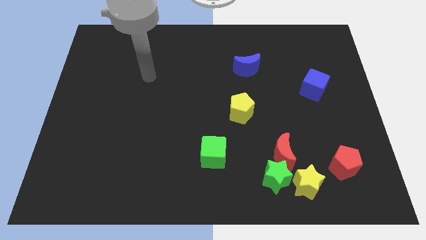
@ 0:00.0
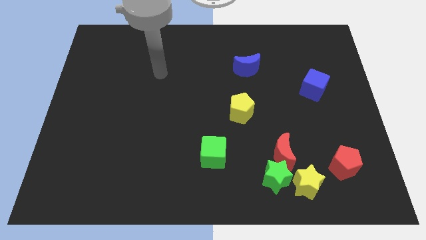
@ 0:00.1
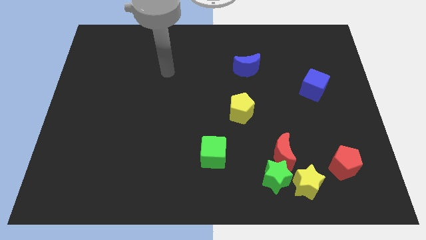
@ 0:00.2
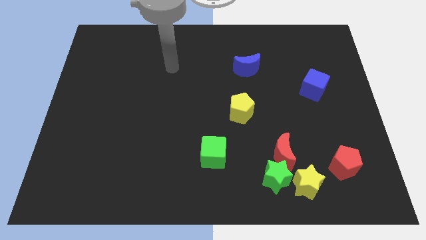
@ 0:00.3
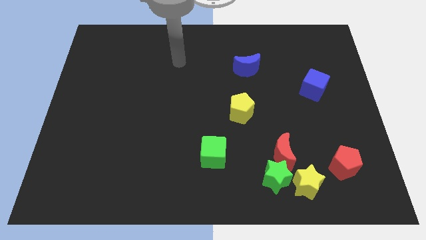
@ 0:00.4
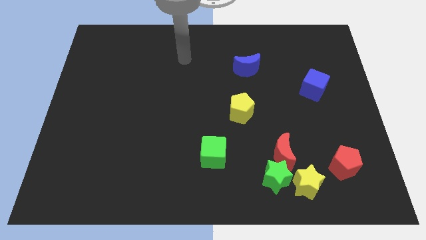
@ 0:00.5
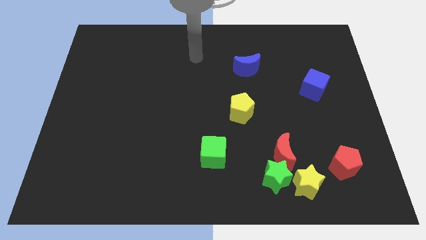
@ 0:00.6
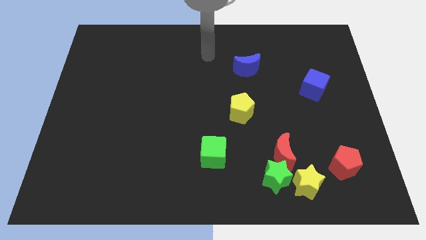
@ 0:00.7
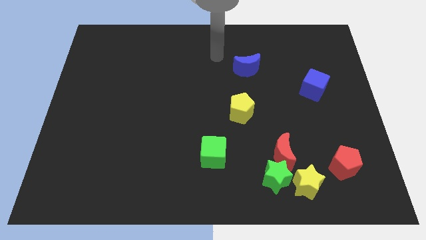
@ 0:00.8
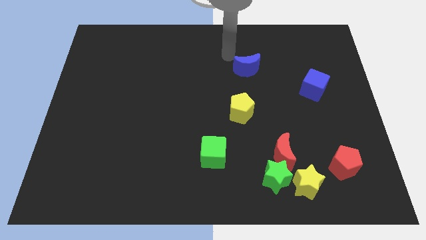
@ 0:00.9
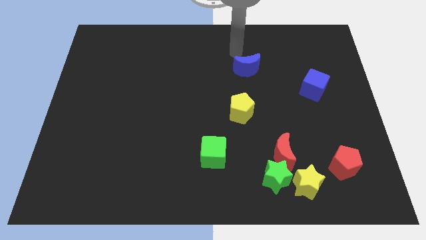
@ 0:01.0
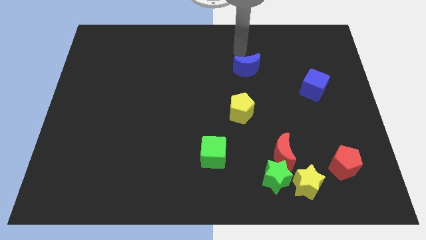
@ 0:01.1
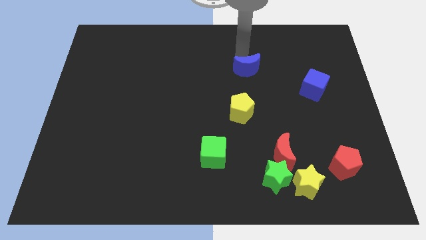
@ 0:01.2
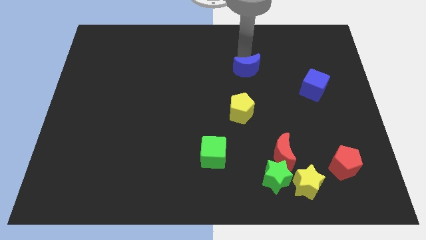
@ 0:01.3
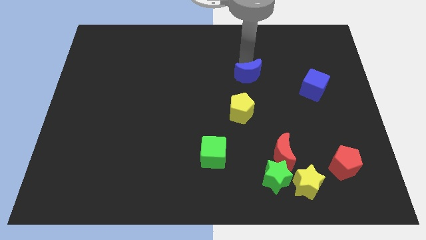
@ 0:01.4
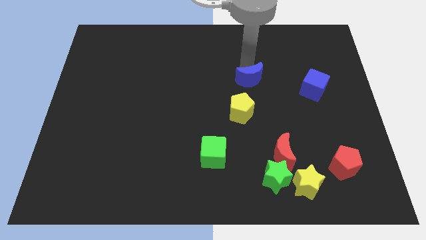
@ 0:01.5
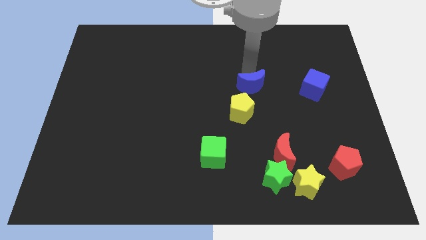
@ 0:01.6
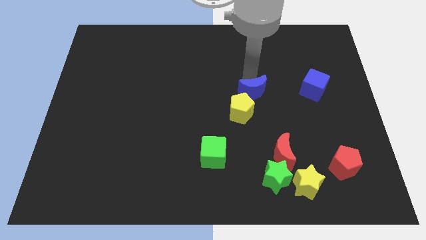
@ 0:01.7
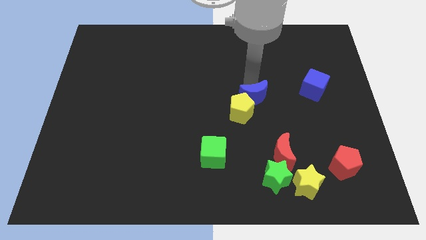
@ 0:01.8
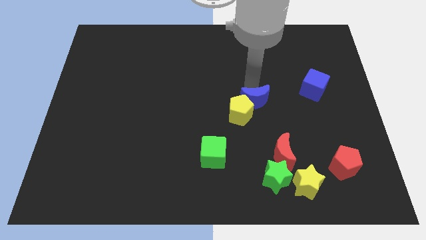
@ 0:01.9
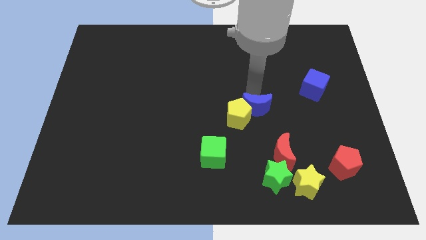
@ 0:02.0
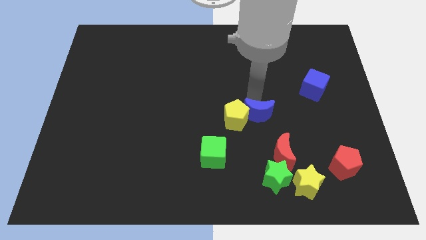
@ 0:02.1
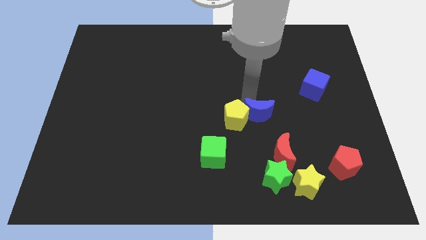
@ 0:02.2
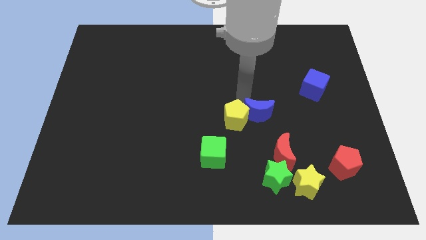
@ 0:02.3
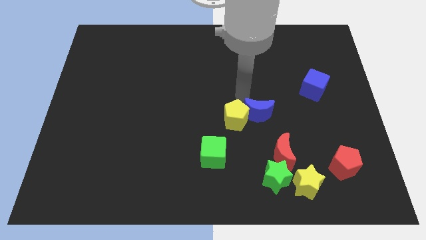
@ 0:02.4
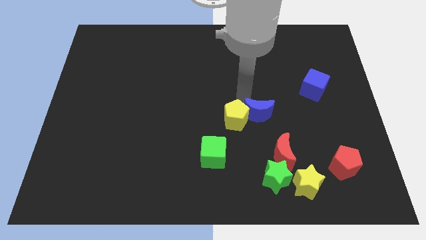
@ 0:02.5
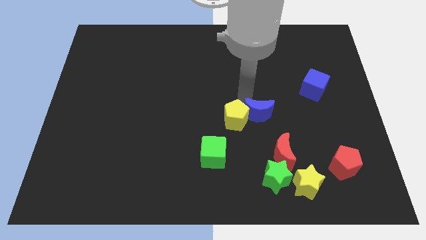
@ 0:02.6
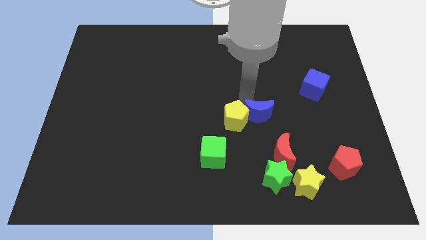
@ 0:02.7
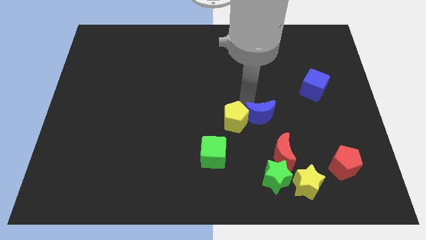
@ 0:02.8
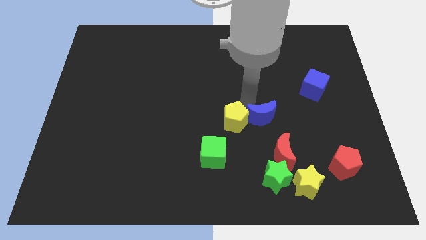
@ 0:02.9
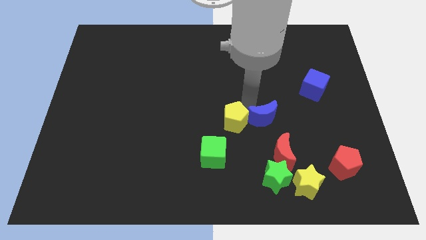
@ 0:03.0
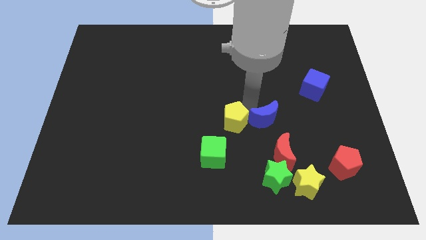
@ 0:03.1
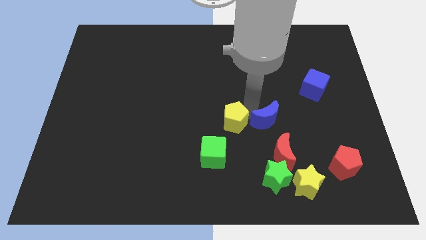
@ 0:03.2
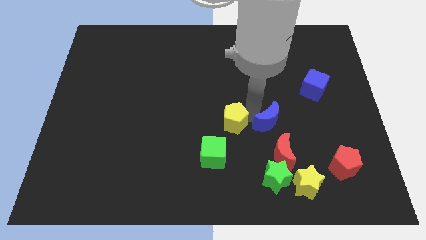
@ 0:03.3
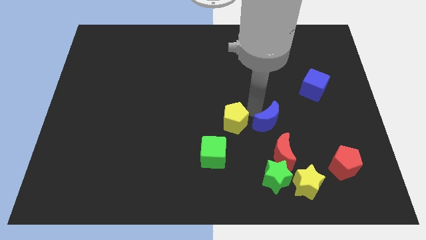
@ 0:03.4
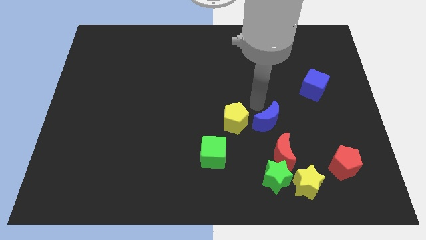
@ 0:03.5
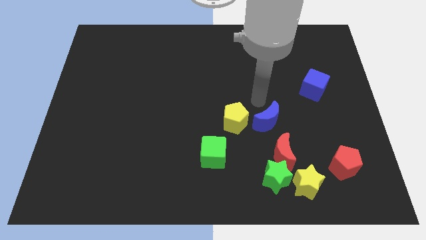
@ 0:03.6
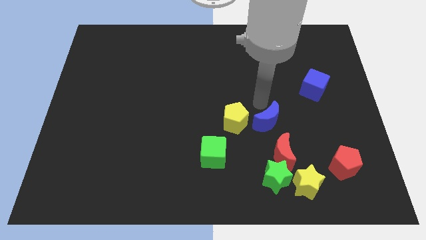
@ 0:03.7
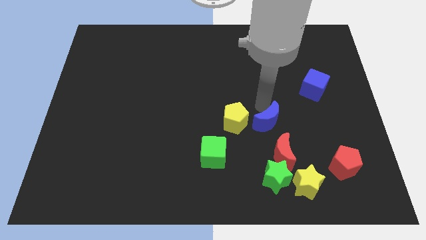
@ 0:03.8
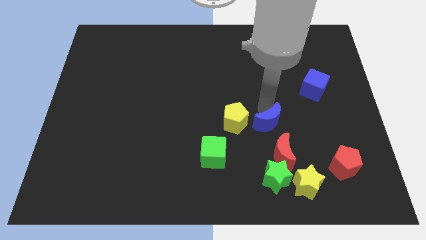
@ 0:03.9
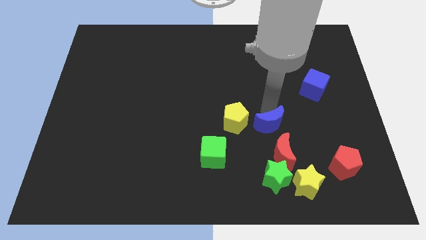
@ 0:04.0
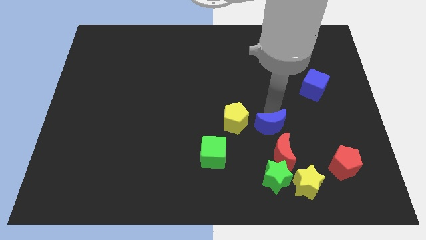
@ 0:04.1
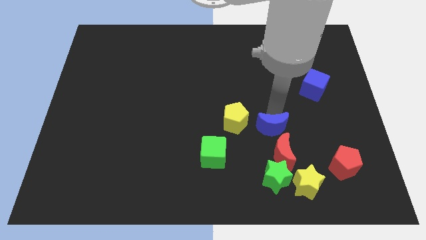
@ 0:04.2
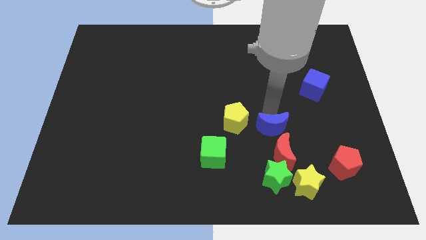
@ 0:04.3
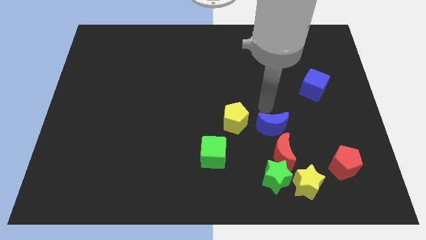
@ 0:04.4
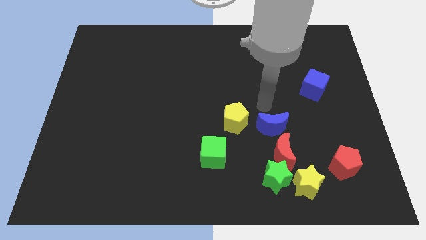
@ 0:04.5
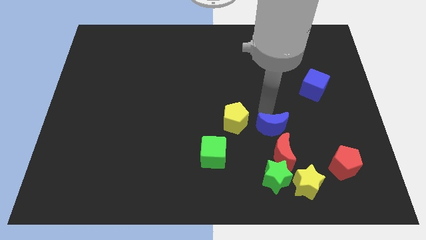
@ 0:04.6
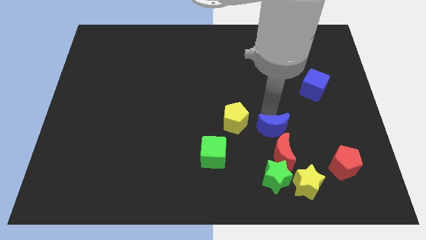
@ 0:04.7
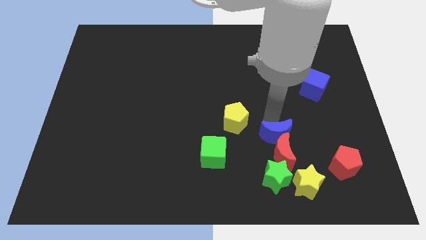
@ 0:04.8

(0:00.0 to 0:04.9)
slide the blue moon next to the red moon

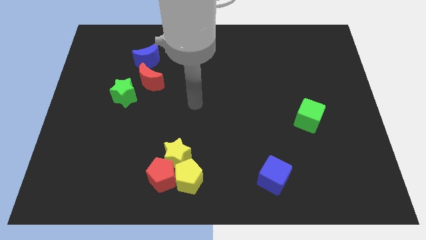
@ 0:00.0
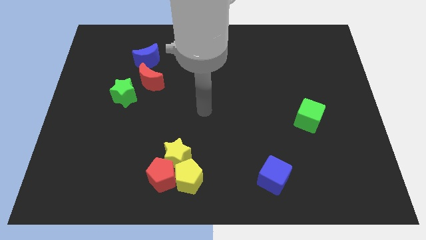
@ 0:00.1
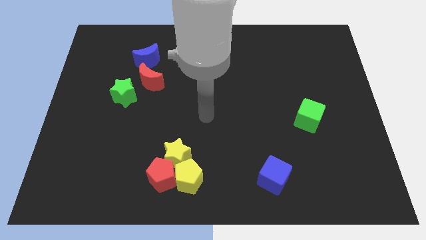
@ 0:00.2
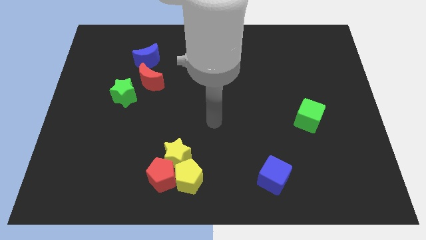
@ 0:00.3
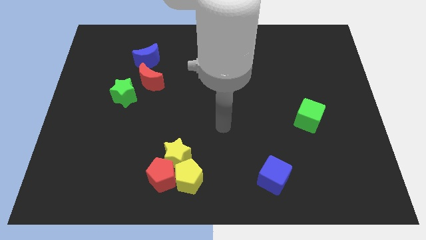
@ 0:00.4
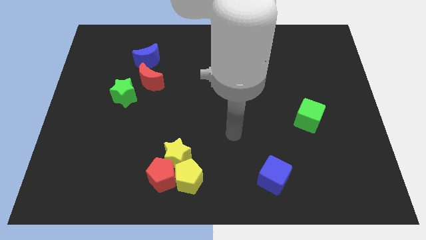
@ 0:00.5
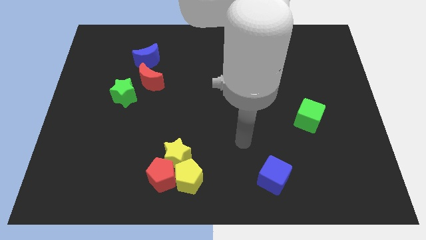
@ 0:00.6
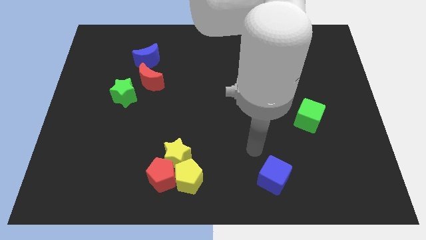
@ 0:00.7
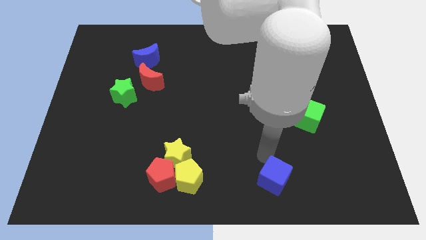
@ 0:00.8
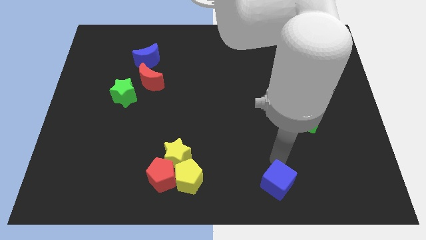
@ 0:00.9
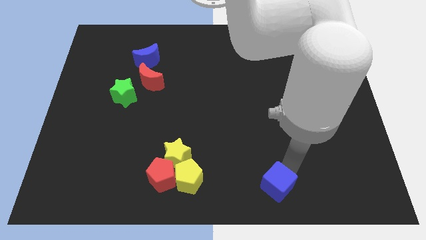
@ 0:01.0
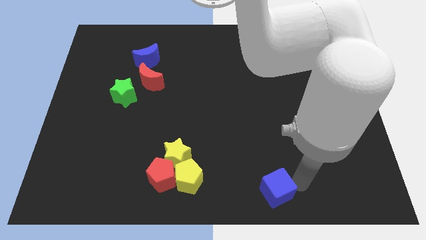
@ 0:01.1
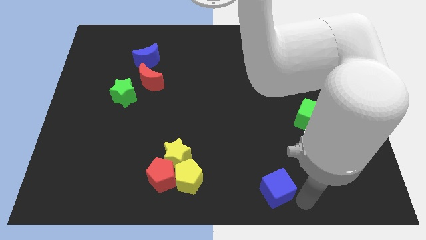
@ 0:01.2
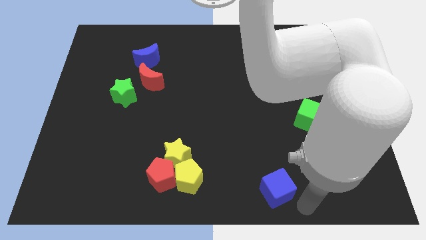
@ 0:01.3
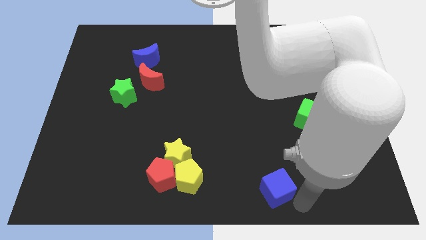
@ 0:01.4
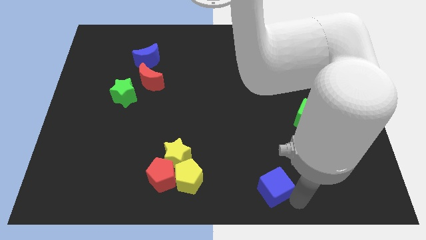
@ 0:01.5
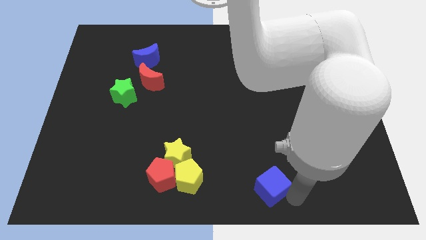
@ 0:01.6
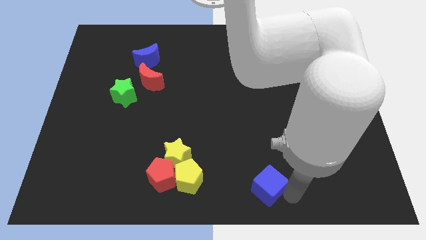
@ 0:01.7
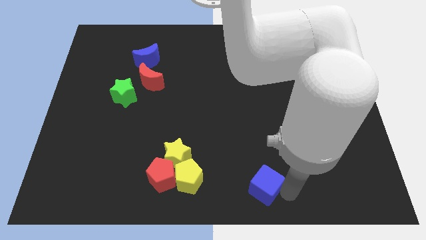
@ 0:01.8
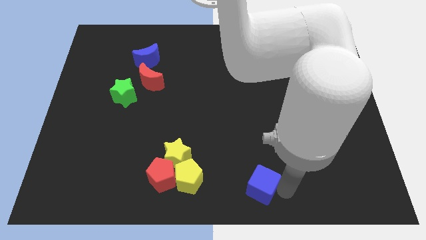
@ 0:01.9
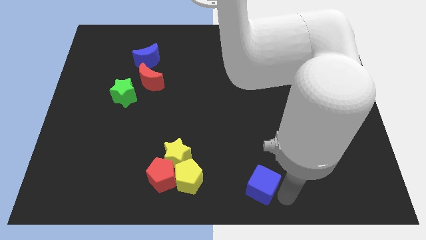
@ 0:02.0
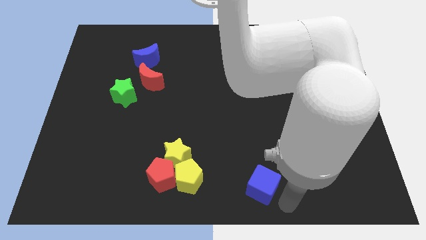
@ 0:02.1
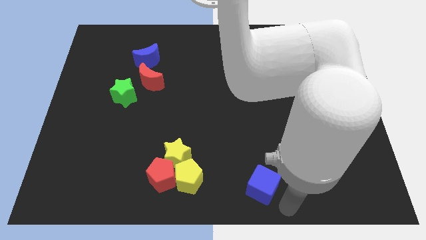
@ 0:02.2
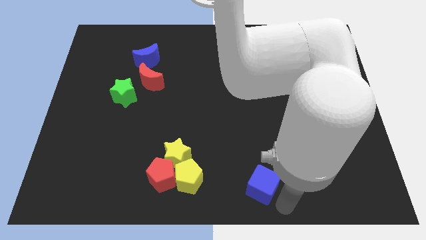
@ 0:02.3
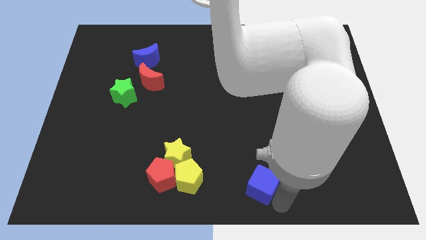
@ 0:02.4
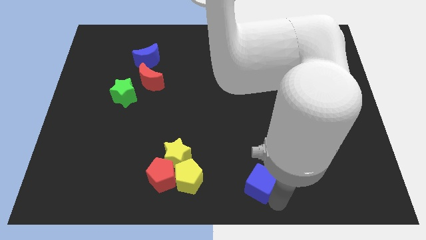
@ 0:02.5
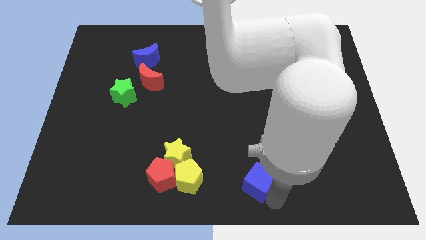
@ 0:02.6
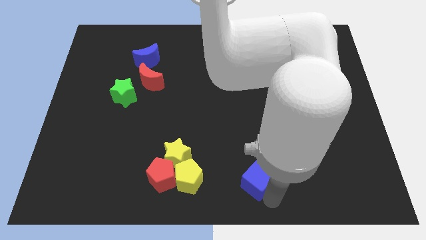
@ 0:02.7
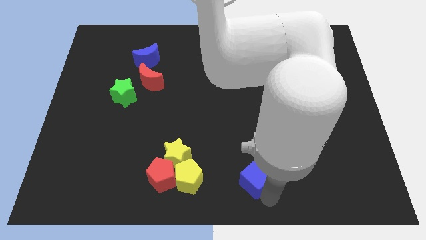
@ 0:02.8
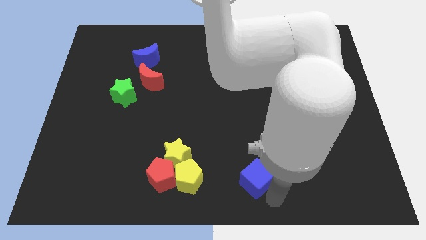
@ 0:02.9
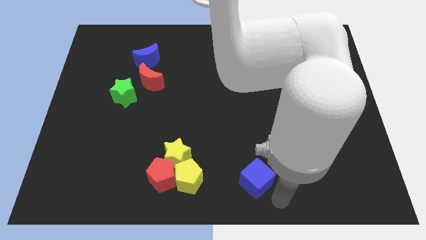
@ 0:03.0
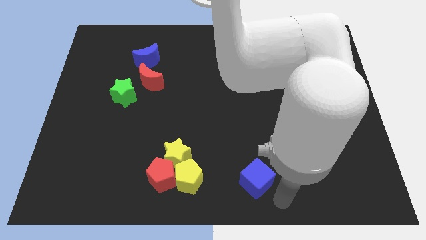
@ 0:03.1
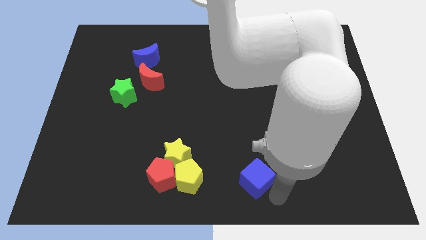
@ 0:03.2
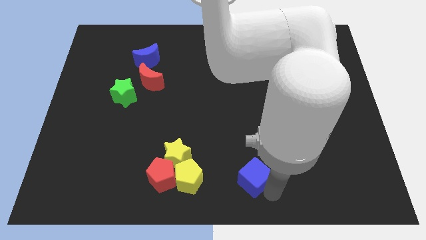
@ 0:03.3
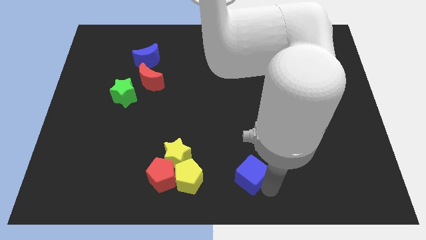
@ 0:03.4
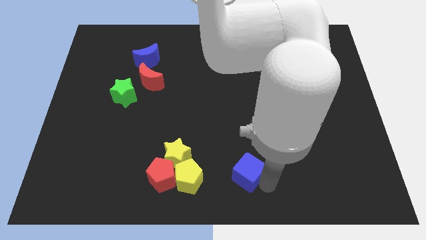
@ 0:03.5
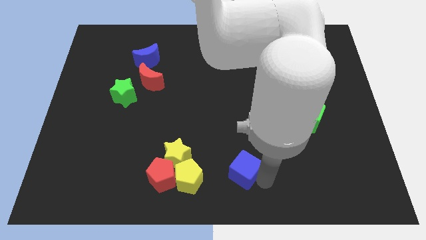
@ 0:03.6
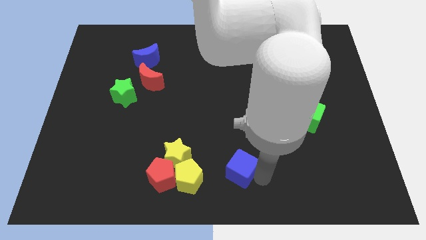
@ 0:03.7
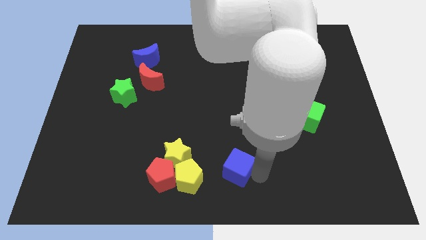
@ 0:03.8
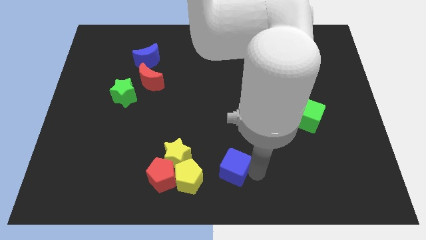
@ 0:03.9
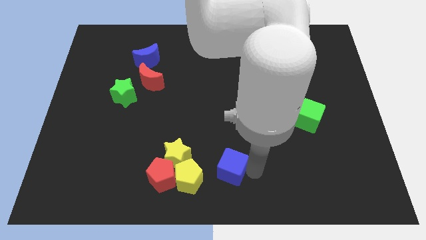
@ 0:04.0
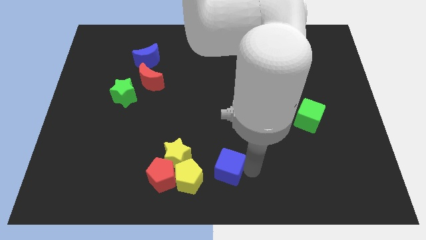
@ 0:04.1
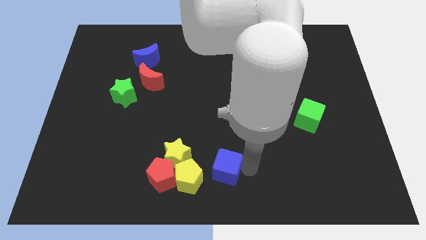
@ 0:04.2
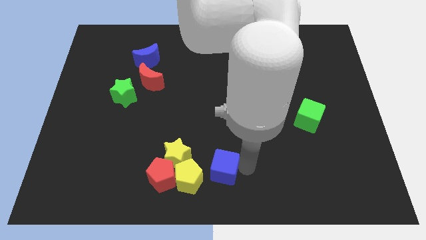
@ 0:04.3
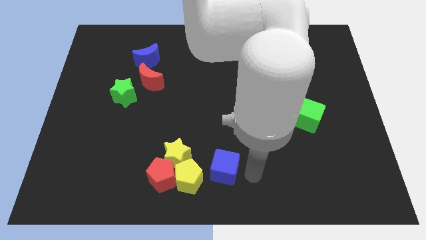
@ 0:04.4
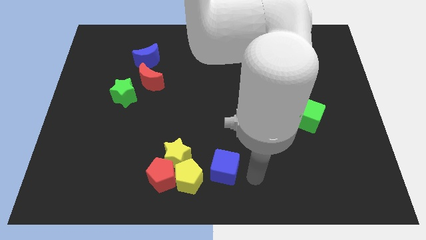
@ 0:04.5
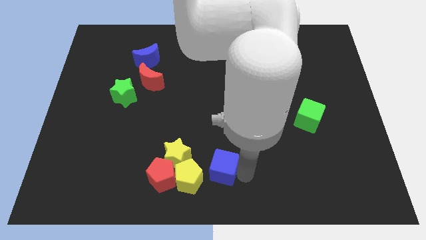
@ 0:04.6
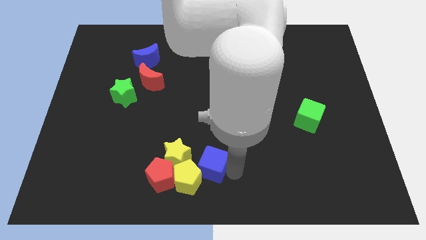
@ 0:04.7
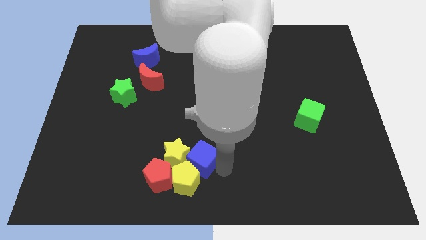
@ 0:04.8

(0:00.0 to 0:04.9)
put the blue cube to the yellow star
